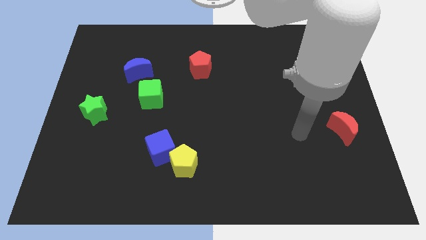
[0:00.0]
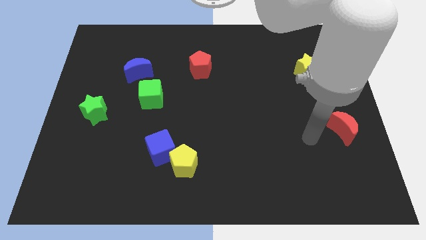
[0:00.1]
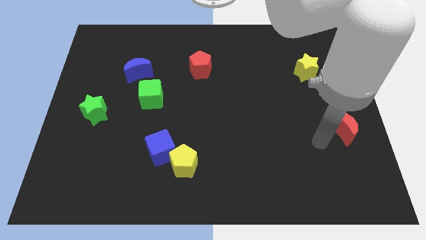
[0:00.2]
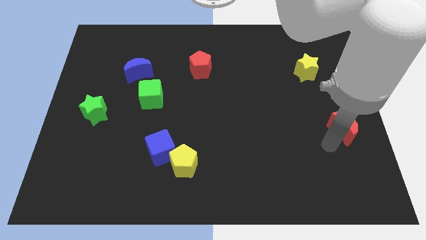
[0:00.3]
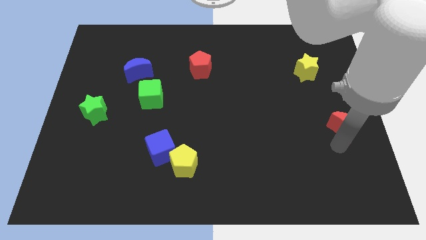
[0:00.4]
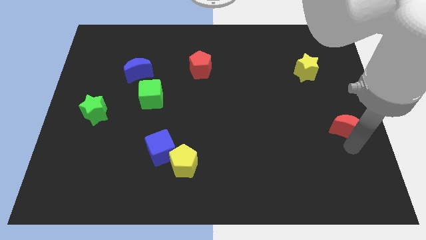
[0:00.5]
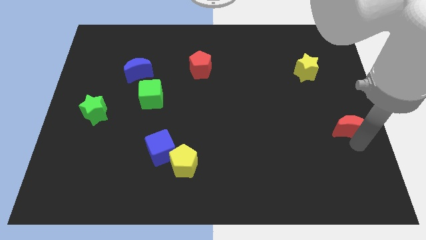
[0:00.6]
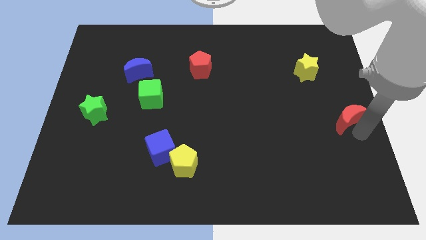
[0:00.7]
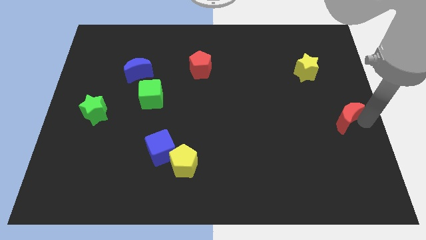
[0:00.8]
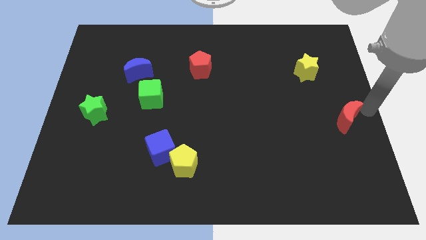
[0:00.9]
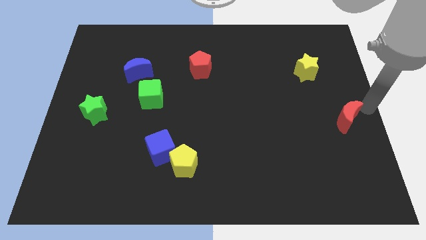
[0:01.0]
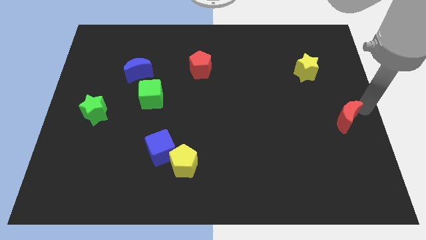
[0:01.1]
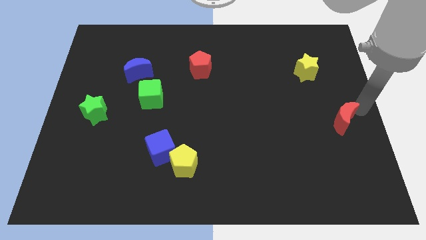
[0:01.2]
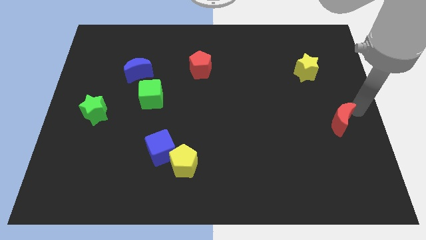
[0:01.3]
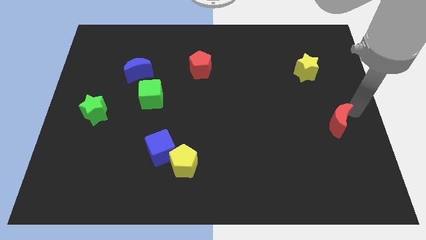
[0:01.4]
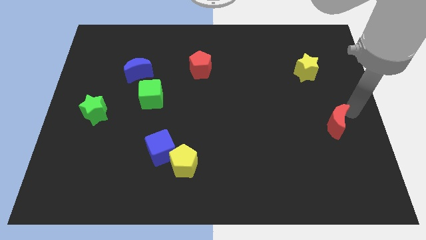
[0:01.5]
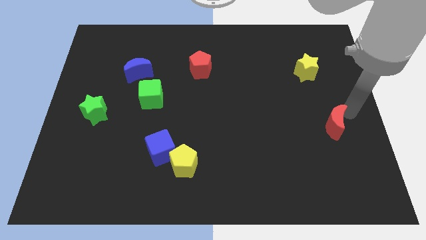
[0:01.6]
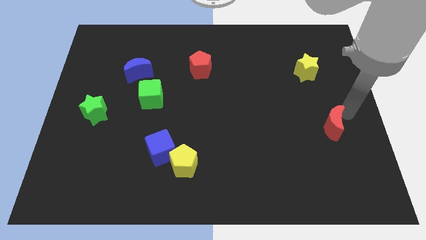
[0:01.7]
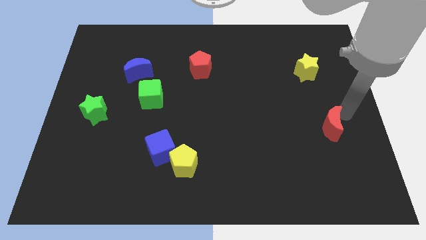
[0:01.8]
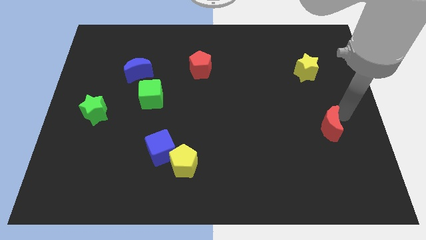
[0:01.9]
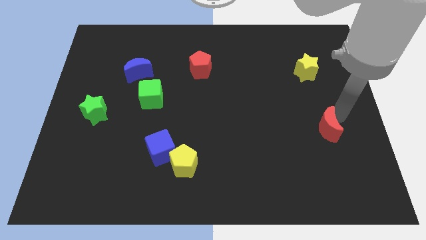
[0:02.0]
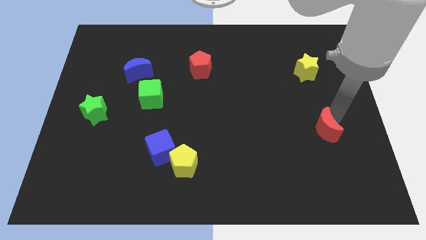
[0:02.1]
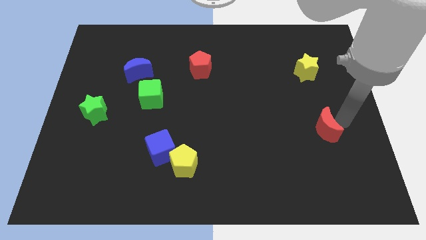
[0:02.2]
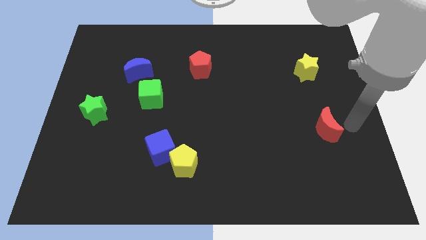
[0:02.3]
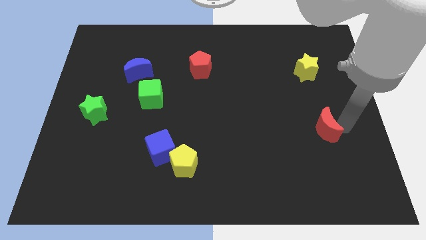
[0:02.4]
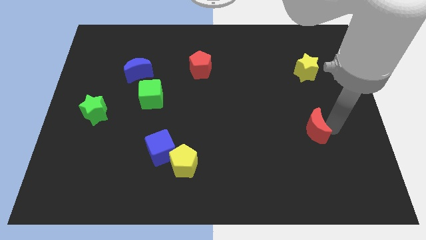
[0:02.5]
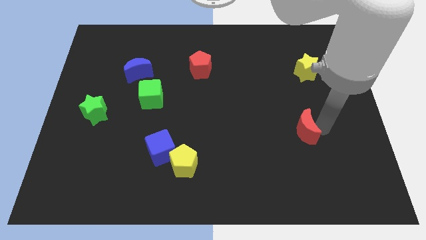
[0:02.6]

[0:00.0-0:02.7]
slide the red moon left slightly

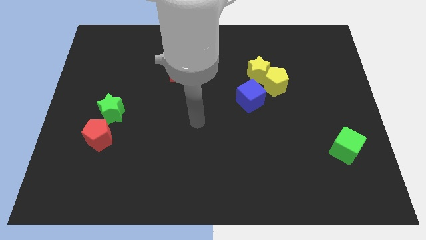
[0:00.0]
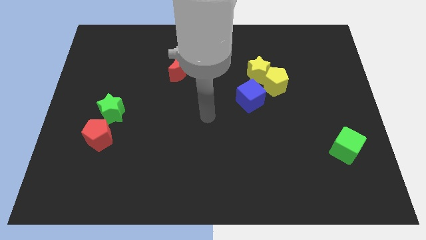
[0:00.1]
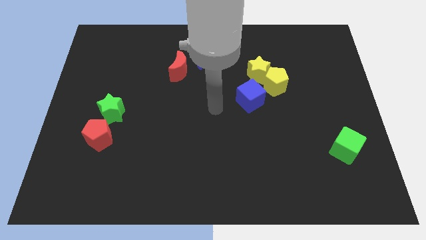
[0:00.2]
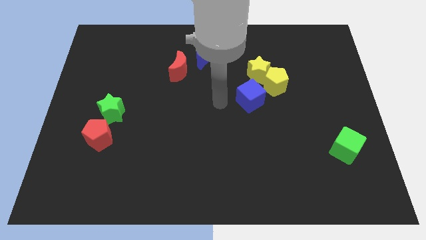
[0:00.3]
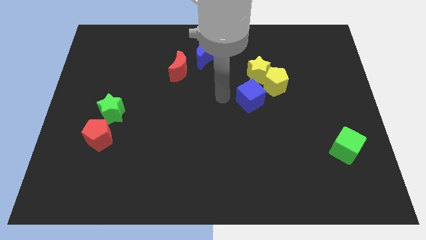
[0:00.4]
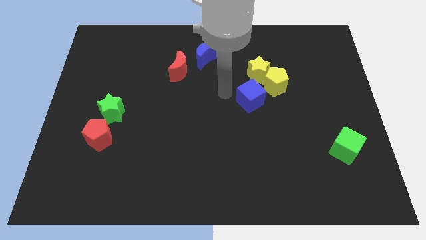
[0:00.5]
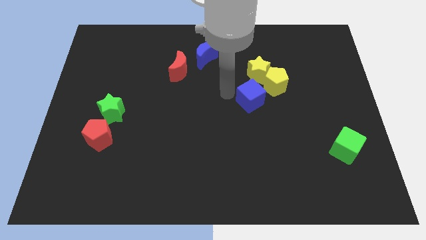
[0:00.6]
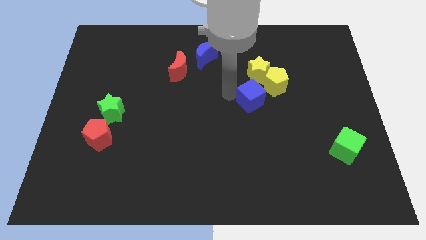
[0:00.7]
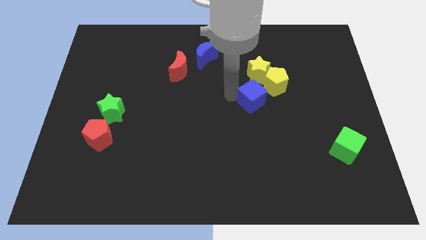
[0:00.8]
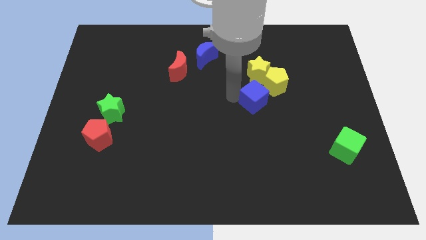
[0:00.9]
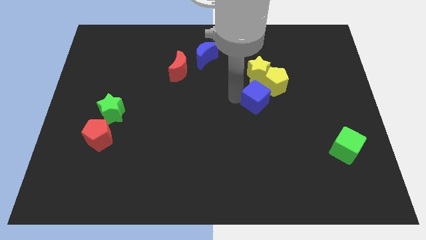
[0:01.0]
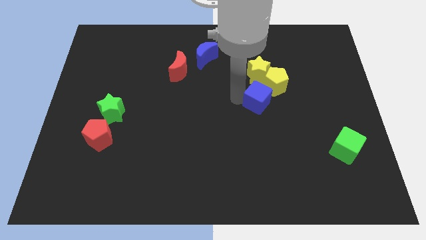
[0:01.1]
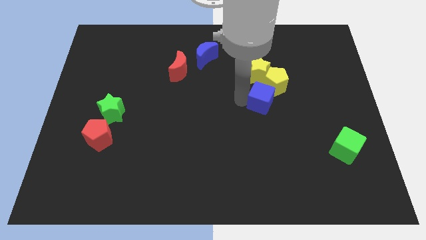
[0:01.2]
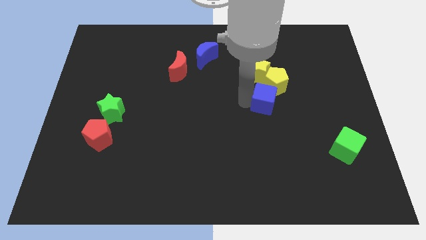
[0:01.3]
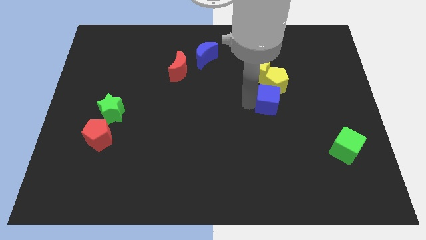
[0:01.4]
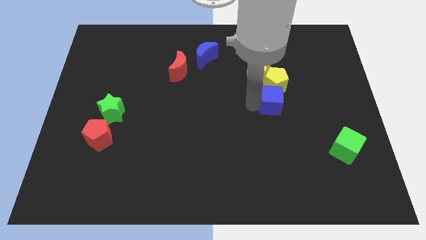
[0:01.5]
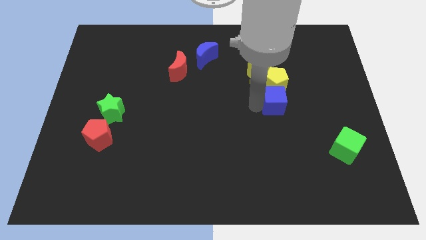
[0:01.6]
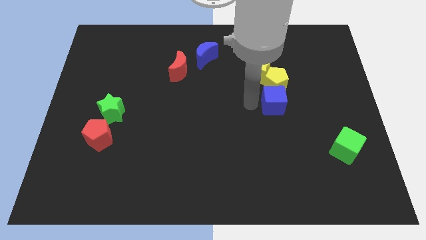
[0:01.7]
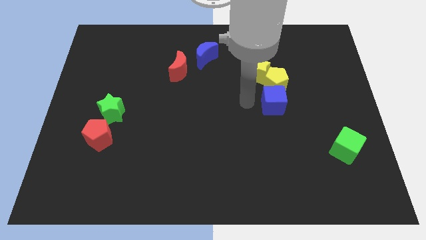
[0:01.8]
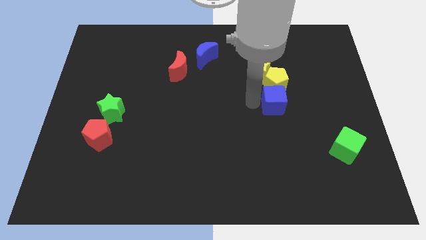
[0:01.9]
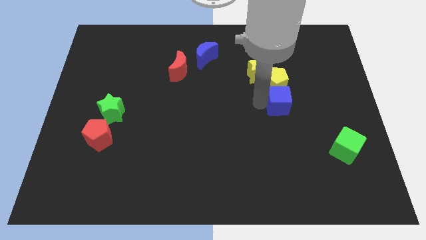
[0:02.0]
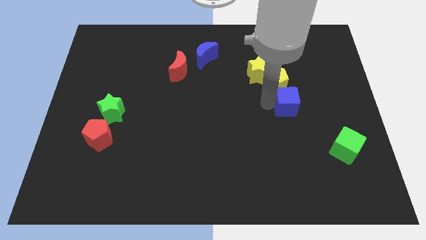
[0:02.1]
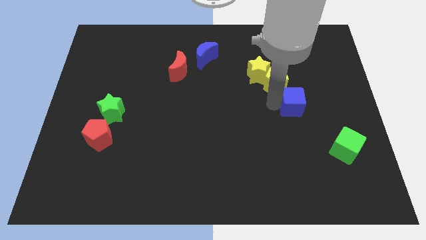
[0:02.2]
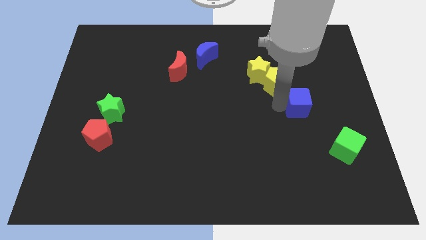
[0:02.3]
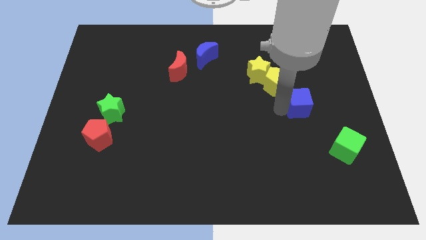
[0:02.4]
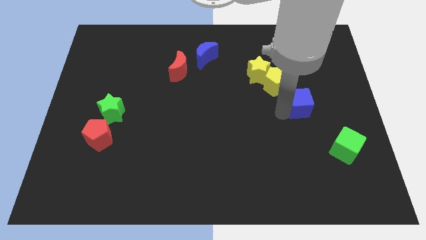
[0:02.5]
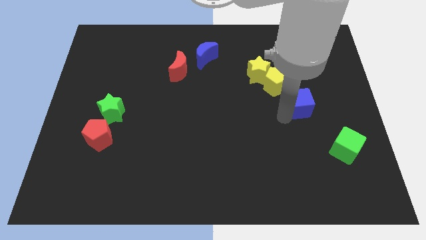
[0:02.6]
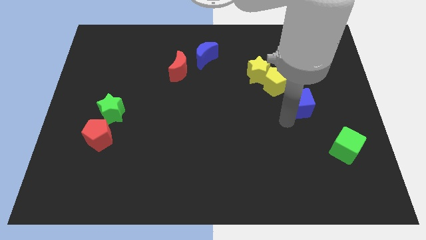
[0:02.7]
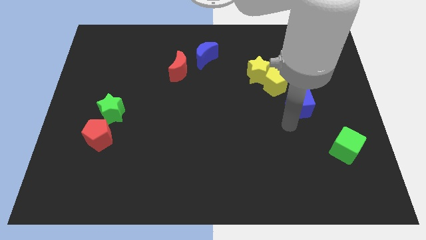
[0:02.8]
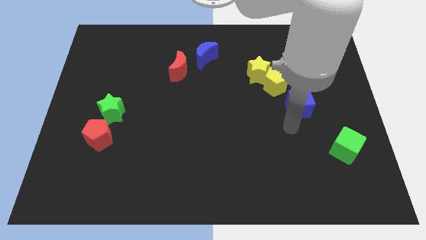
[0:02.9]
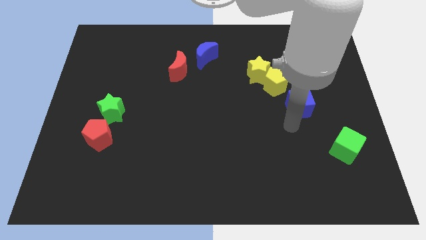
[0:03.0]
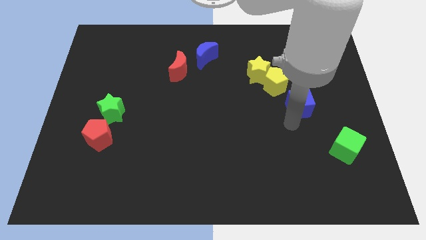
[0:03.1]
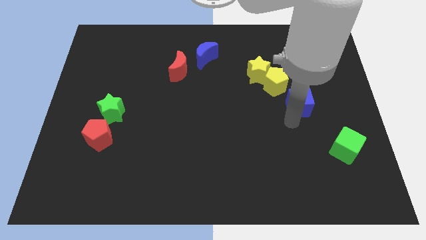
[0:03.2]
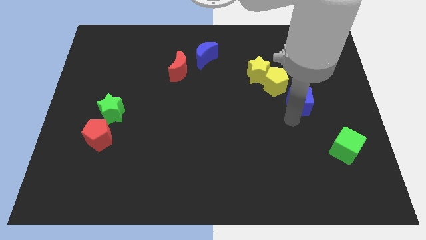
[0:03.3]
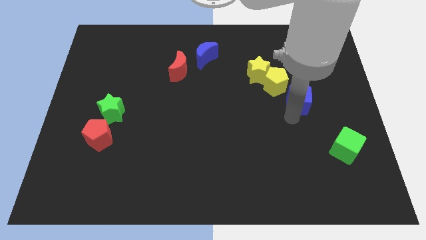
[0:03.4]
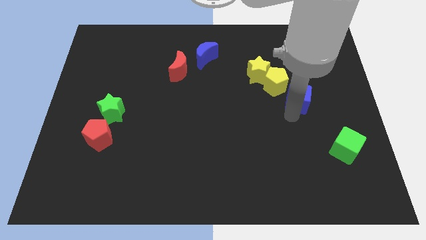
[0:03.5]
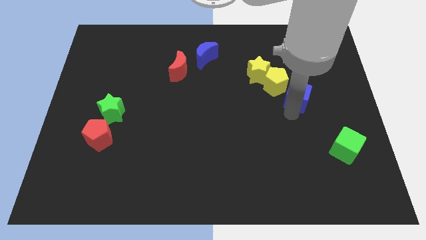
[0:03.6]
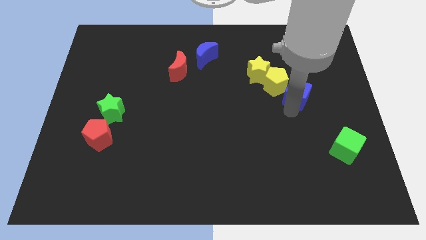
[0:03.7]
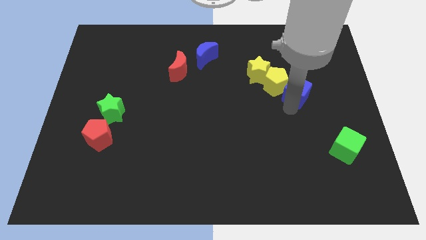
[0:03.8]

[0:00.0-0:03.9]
slide the blue cube diagonally up and right a little

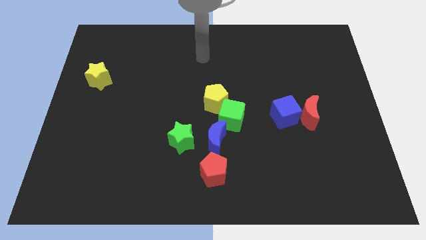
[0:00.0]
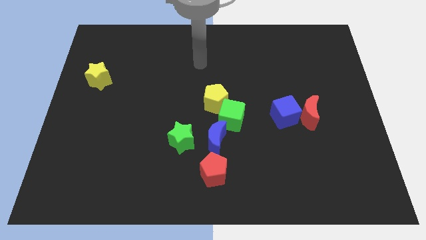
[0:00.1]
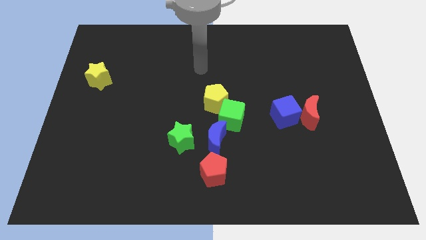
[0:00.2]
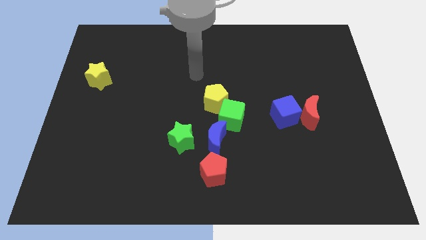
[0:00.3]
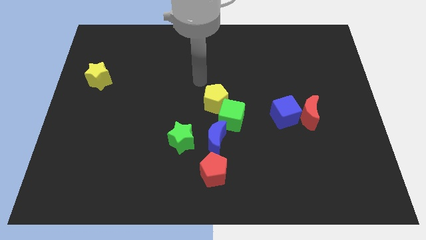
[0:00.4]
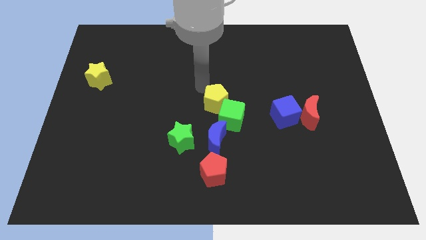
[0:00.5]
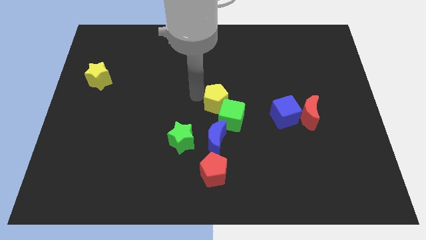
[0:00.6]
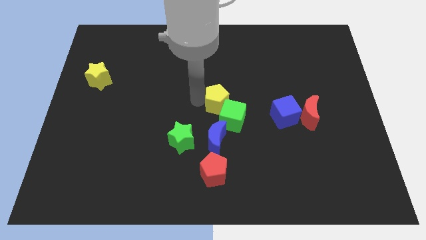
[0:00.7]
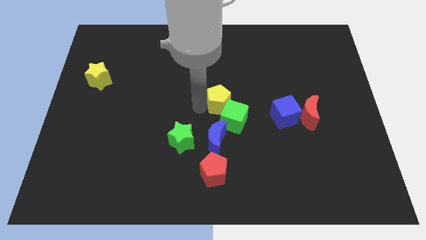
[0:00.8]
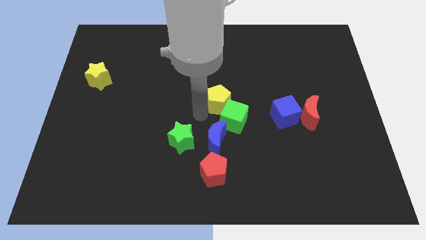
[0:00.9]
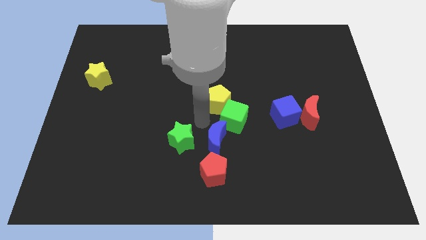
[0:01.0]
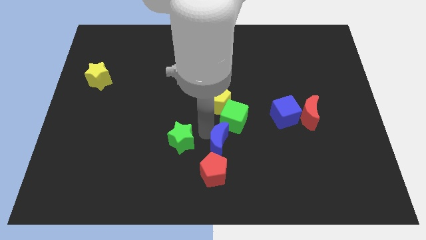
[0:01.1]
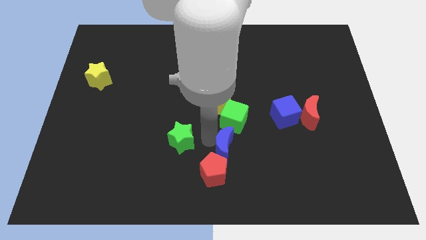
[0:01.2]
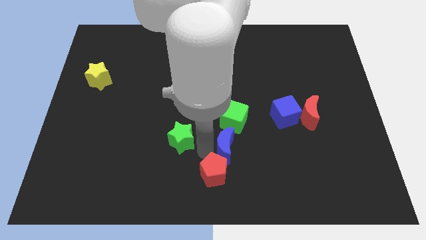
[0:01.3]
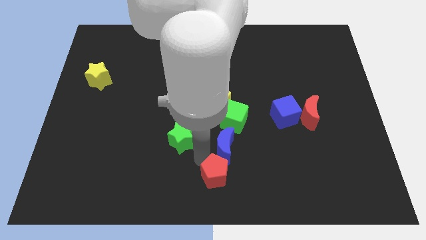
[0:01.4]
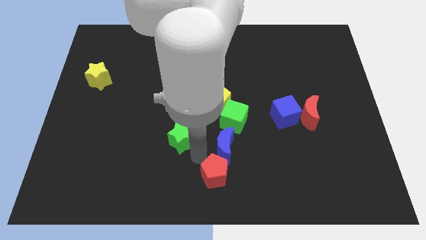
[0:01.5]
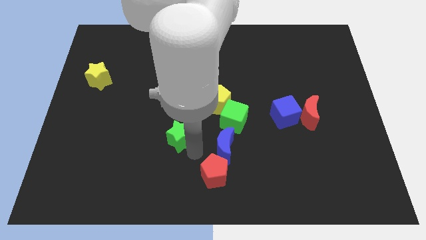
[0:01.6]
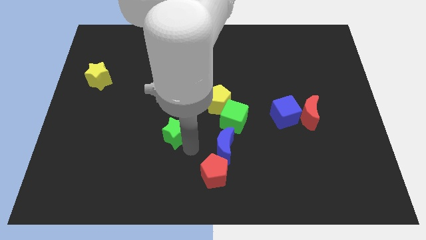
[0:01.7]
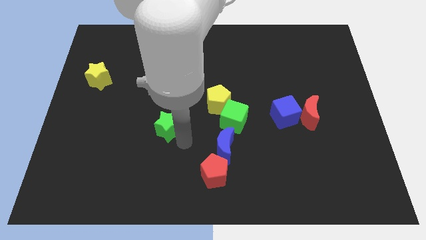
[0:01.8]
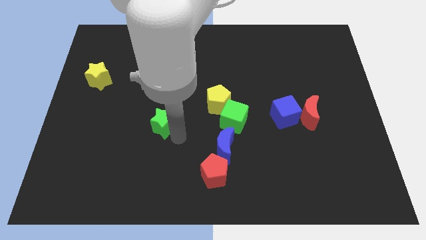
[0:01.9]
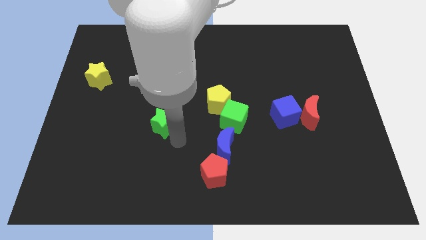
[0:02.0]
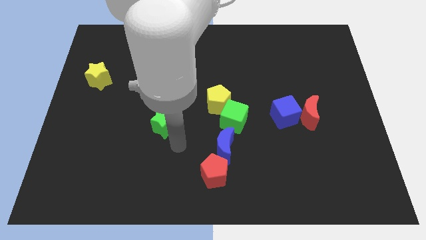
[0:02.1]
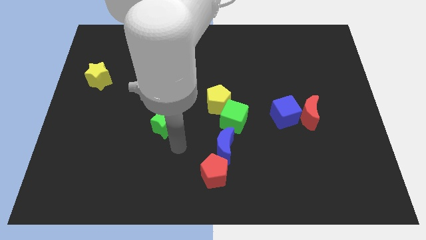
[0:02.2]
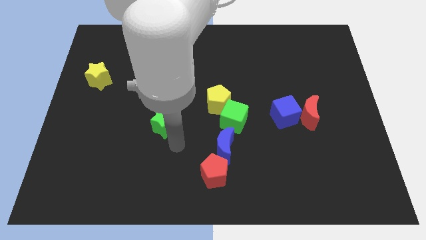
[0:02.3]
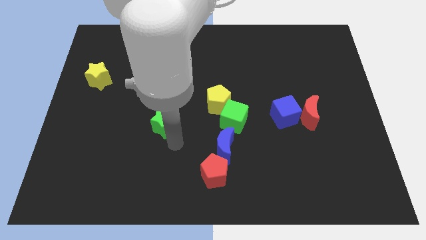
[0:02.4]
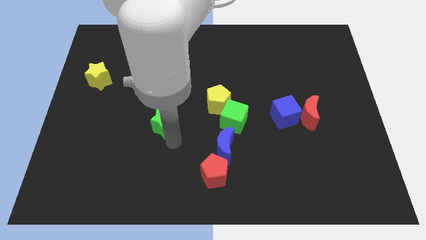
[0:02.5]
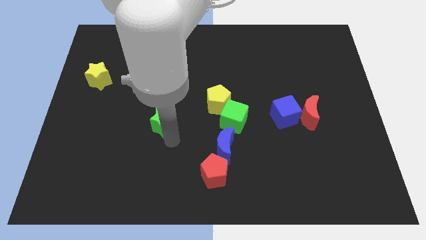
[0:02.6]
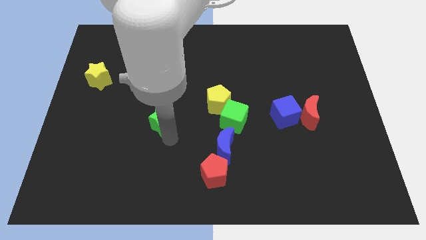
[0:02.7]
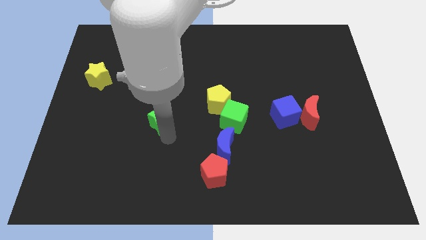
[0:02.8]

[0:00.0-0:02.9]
slightly slide the green star diagonally up and left
